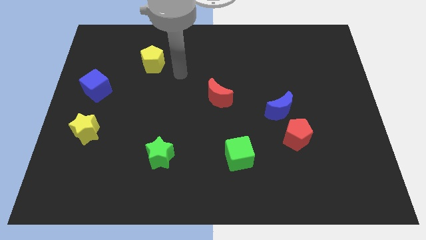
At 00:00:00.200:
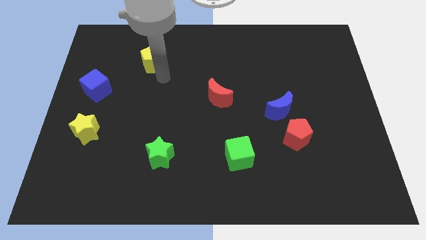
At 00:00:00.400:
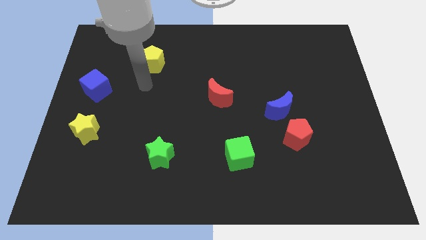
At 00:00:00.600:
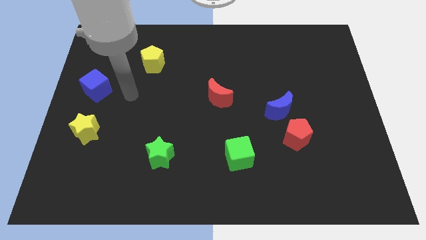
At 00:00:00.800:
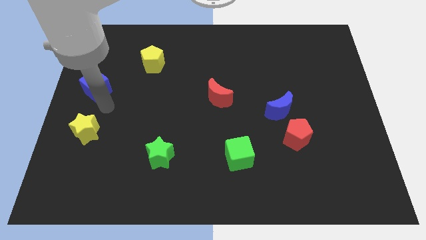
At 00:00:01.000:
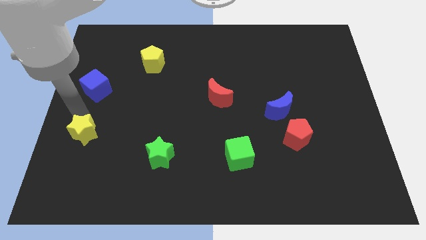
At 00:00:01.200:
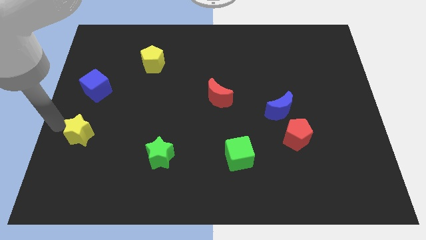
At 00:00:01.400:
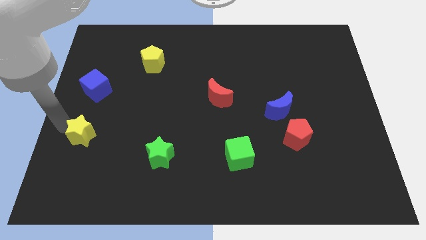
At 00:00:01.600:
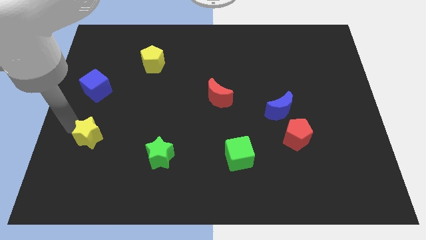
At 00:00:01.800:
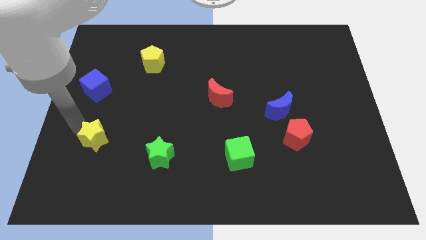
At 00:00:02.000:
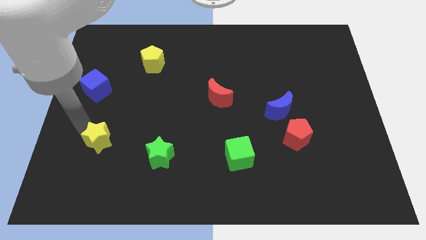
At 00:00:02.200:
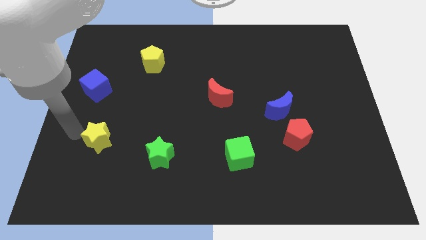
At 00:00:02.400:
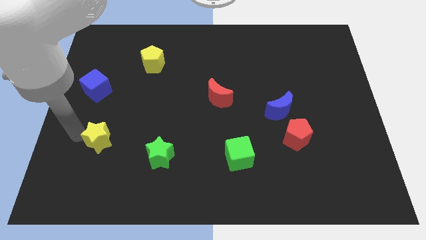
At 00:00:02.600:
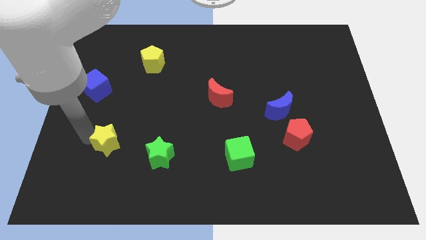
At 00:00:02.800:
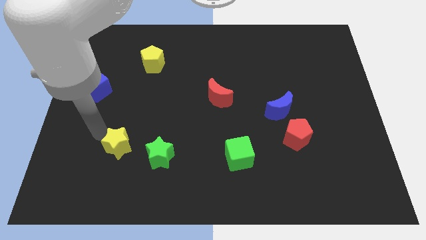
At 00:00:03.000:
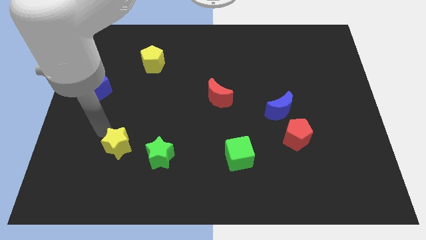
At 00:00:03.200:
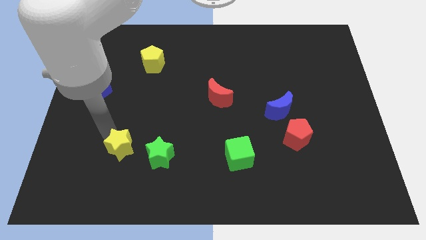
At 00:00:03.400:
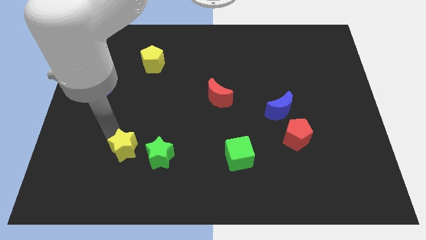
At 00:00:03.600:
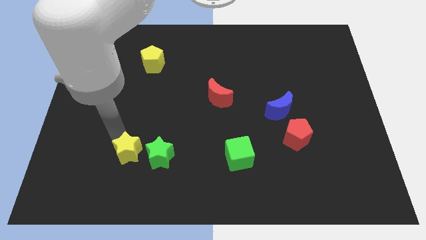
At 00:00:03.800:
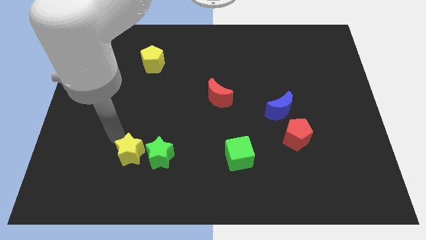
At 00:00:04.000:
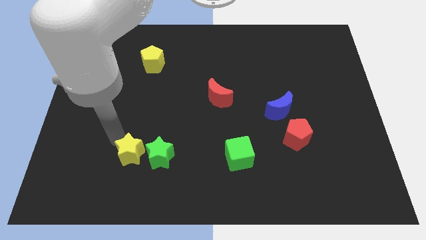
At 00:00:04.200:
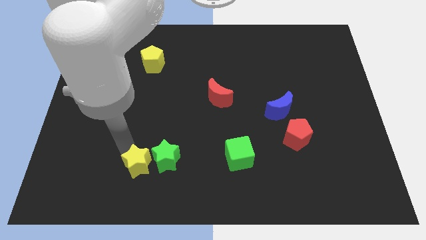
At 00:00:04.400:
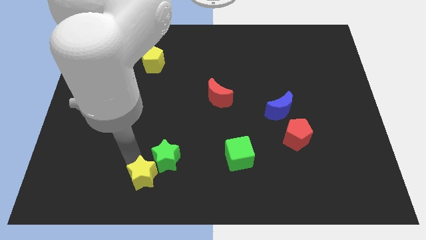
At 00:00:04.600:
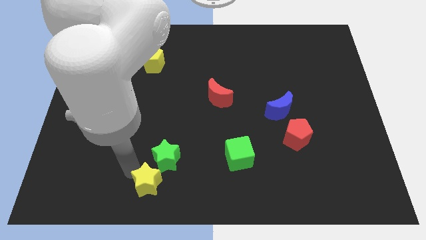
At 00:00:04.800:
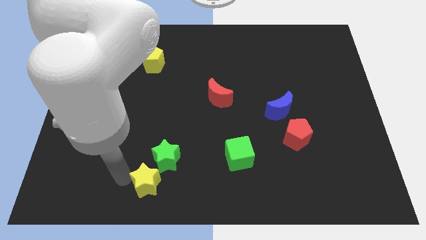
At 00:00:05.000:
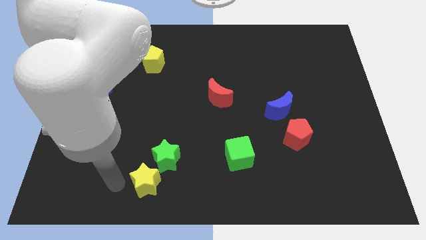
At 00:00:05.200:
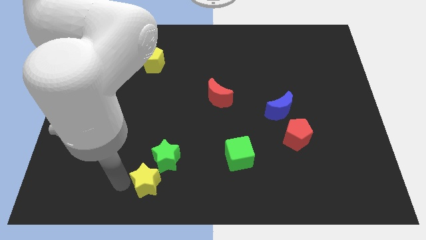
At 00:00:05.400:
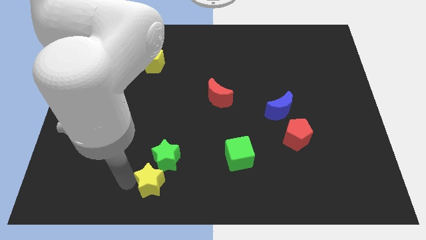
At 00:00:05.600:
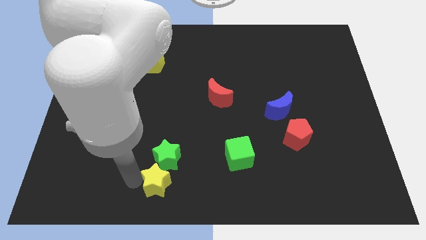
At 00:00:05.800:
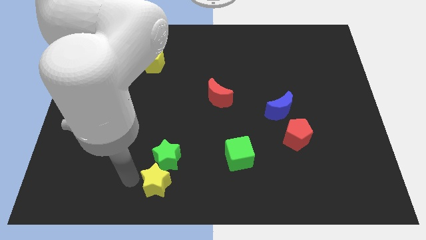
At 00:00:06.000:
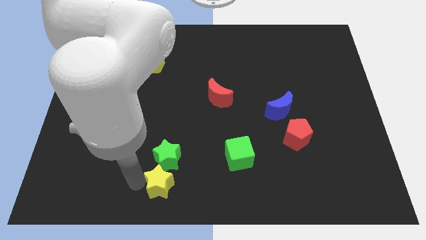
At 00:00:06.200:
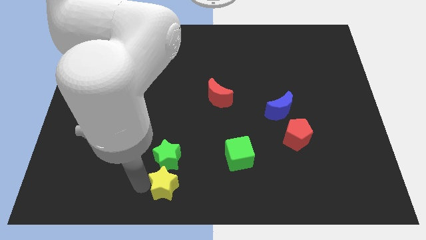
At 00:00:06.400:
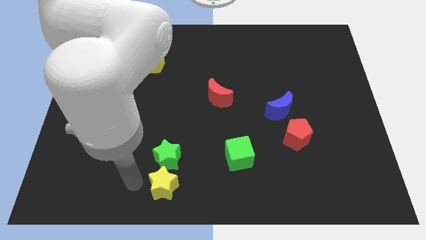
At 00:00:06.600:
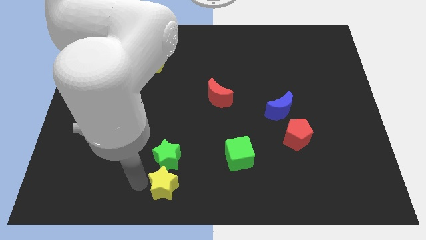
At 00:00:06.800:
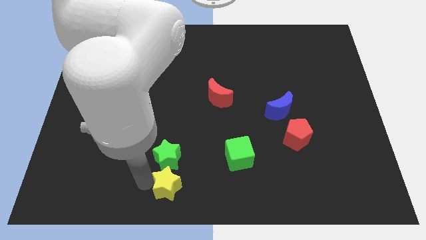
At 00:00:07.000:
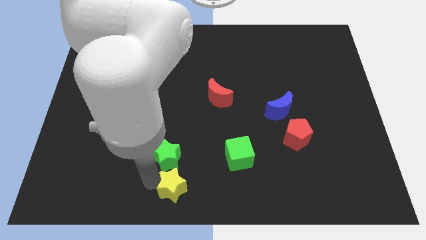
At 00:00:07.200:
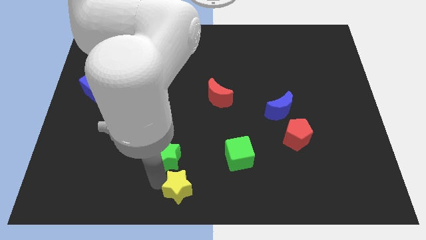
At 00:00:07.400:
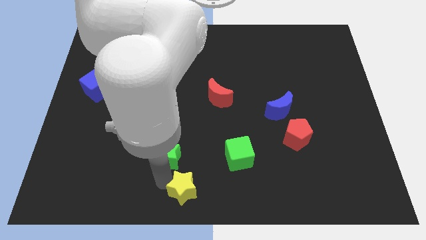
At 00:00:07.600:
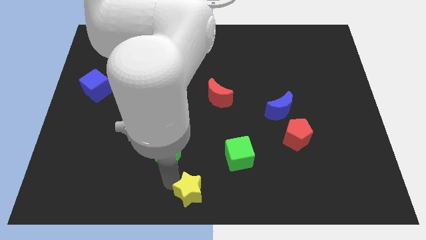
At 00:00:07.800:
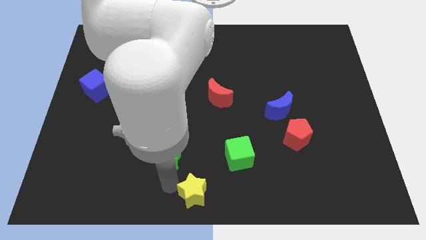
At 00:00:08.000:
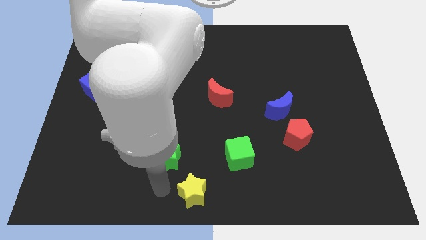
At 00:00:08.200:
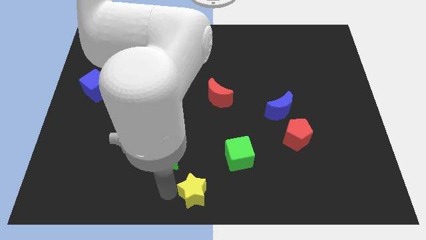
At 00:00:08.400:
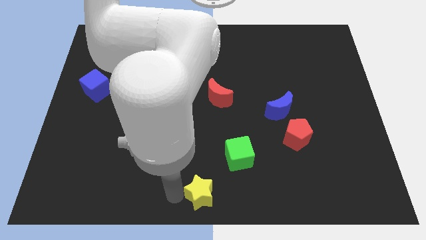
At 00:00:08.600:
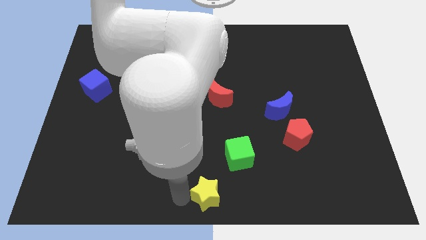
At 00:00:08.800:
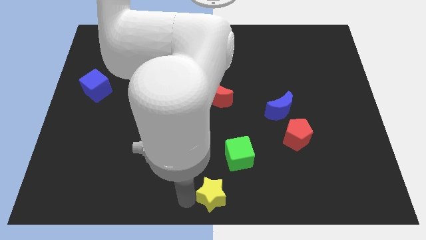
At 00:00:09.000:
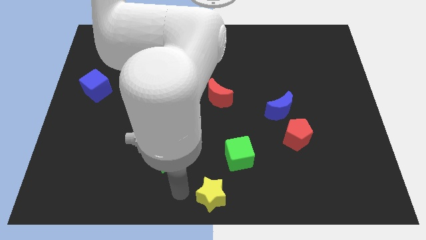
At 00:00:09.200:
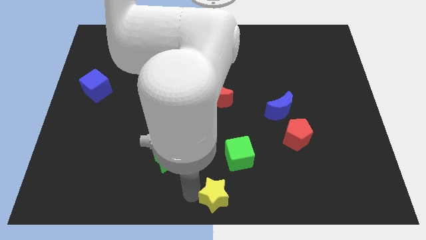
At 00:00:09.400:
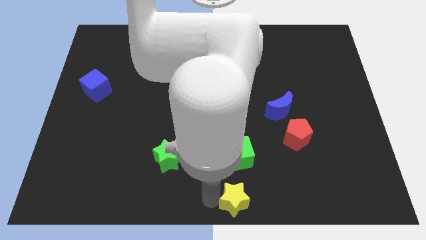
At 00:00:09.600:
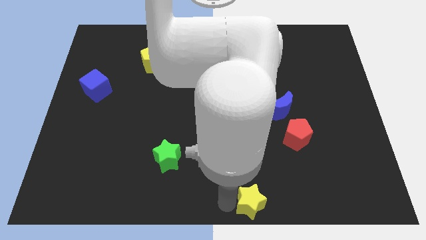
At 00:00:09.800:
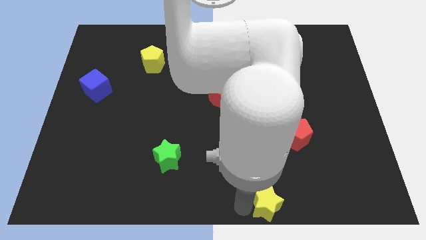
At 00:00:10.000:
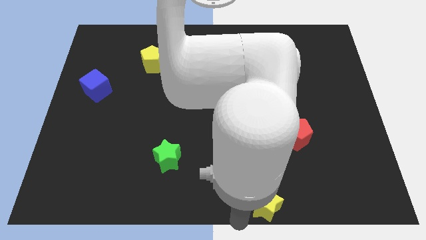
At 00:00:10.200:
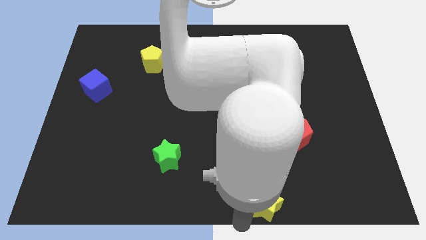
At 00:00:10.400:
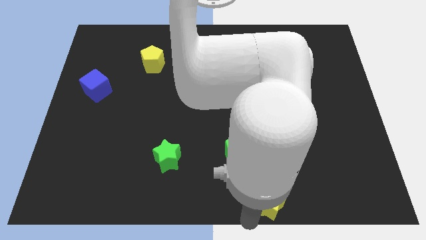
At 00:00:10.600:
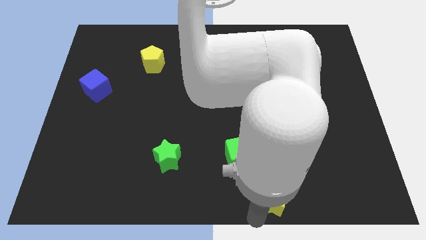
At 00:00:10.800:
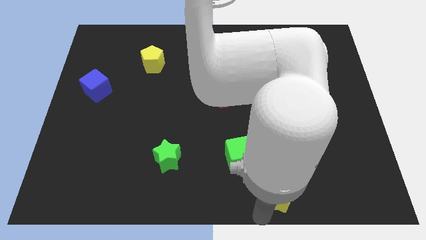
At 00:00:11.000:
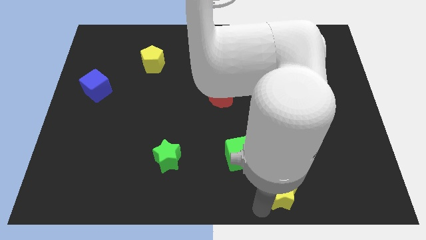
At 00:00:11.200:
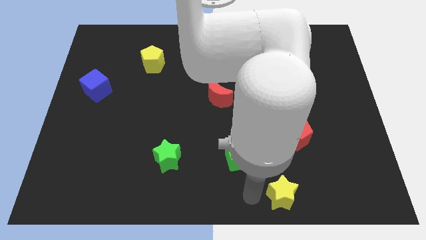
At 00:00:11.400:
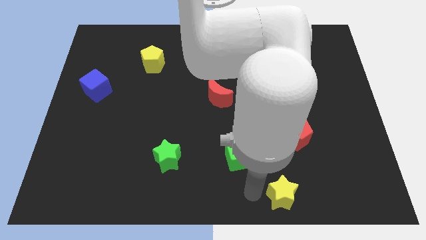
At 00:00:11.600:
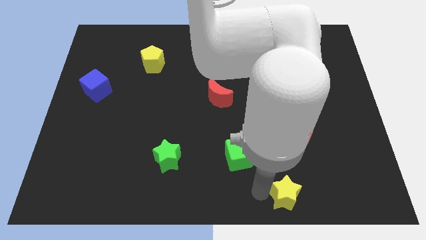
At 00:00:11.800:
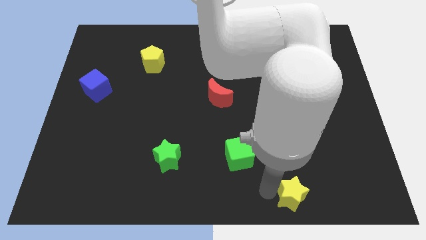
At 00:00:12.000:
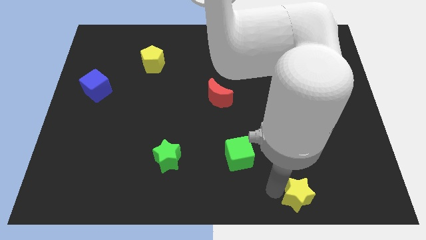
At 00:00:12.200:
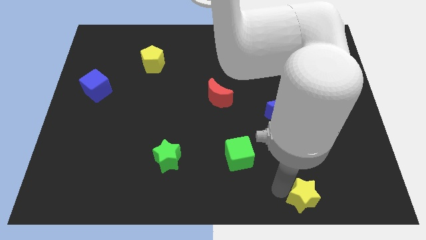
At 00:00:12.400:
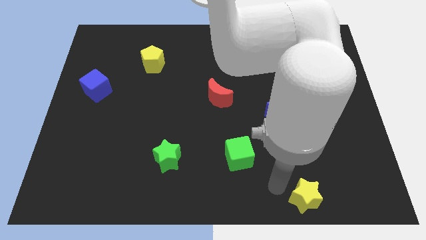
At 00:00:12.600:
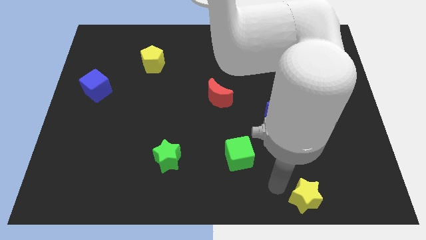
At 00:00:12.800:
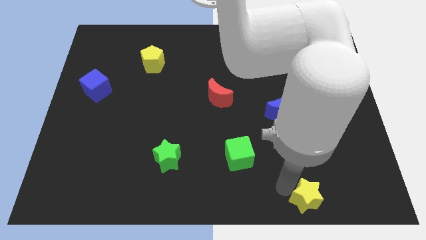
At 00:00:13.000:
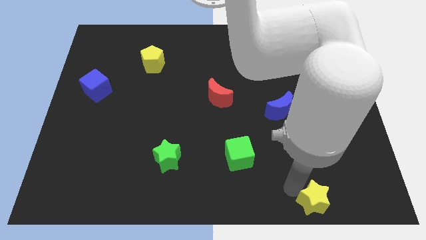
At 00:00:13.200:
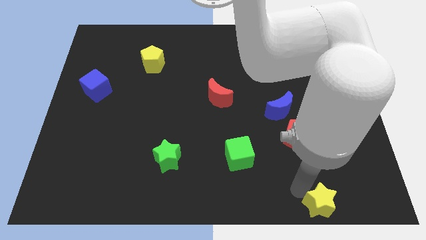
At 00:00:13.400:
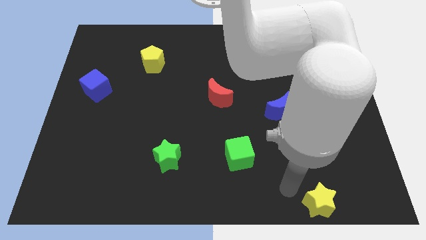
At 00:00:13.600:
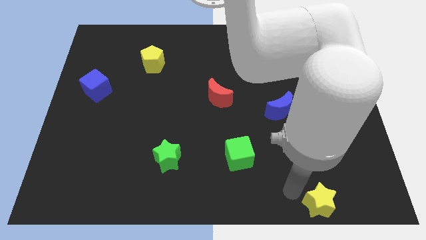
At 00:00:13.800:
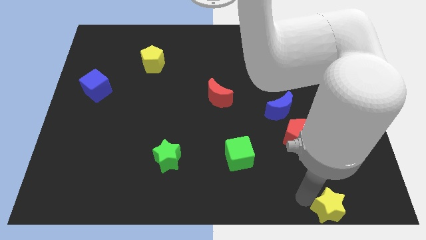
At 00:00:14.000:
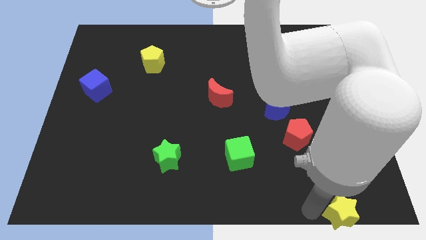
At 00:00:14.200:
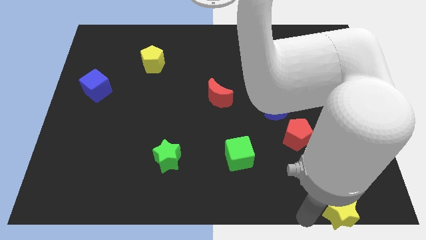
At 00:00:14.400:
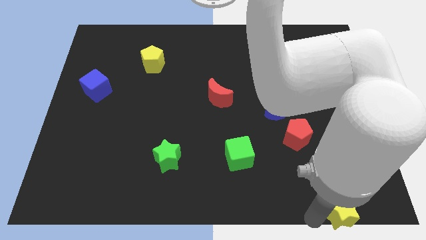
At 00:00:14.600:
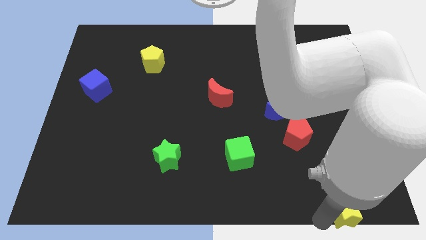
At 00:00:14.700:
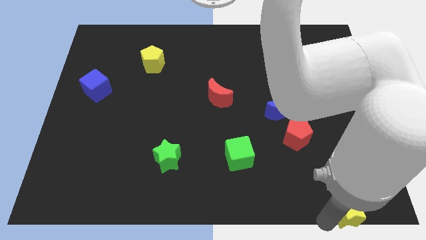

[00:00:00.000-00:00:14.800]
push the yellow star to the bottom right
